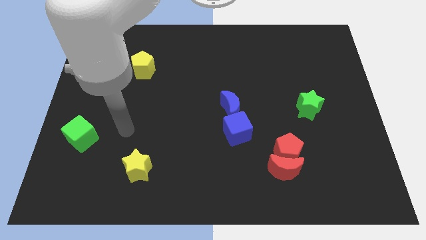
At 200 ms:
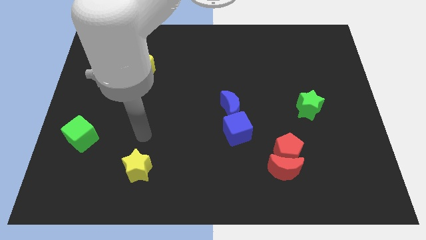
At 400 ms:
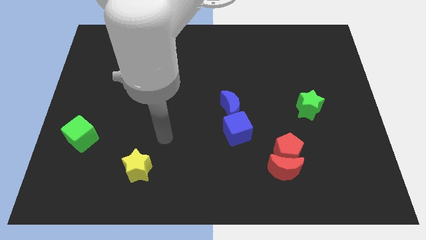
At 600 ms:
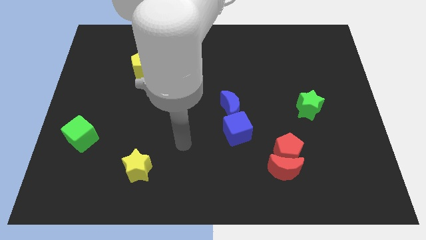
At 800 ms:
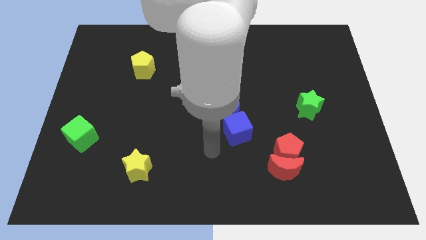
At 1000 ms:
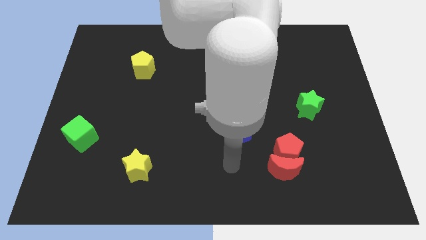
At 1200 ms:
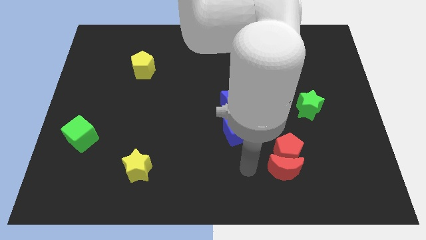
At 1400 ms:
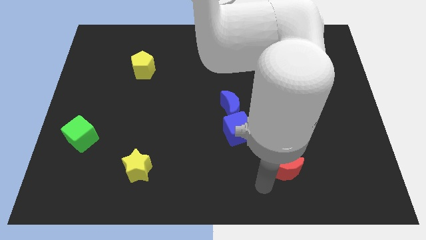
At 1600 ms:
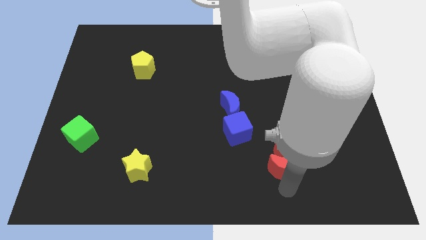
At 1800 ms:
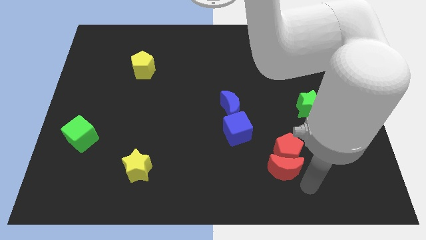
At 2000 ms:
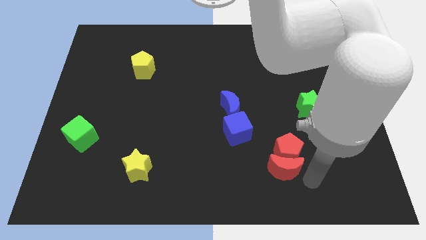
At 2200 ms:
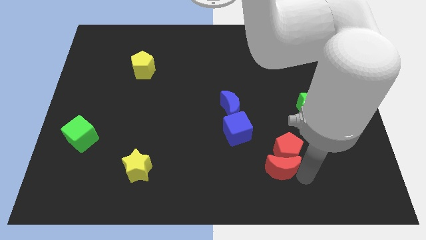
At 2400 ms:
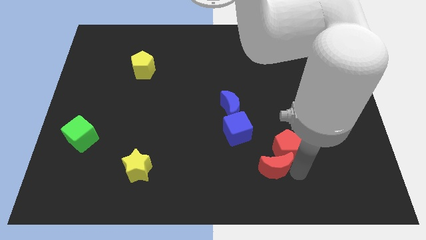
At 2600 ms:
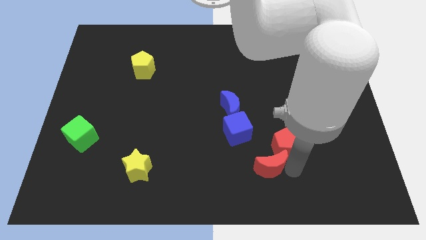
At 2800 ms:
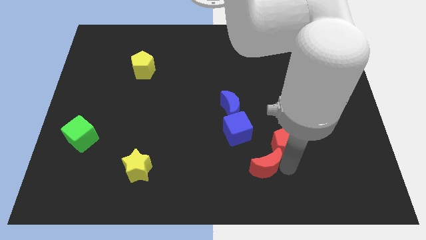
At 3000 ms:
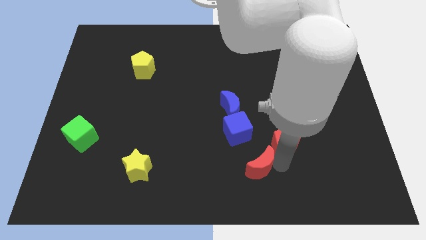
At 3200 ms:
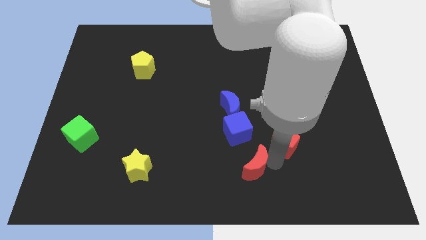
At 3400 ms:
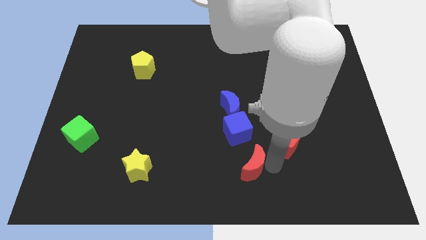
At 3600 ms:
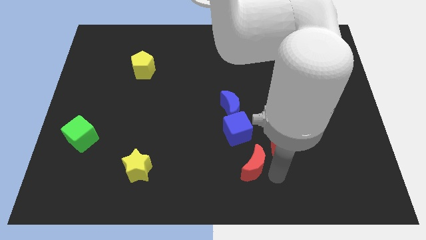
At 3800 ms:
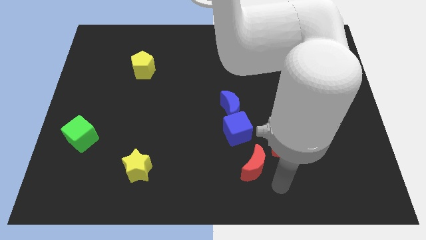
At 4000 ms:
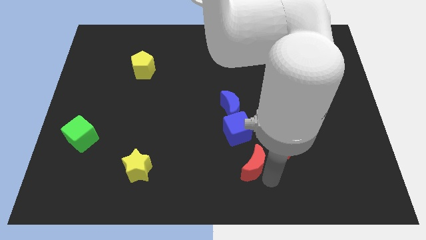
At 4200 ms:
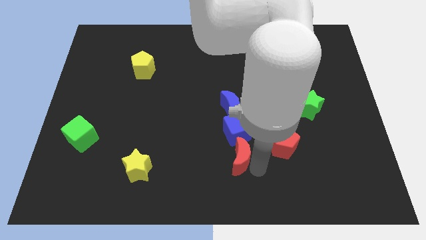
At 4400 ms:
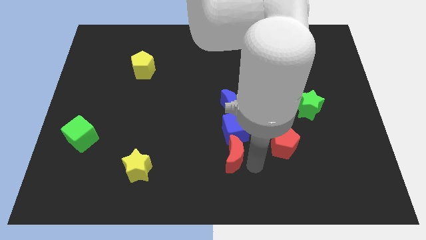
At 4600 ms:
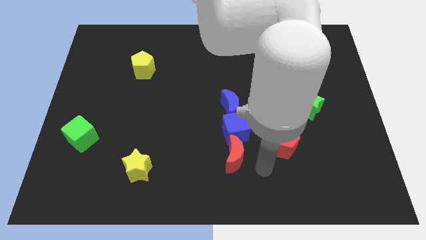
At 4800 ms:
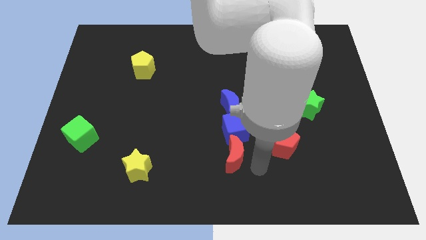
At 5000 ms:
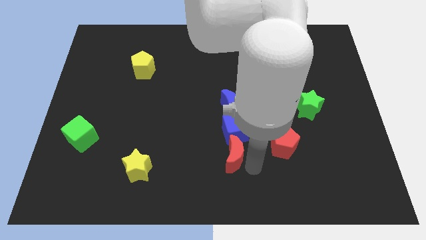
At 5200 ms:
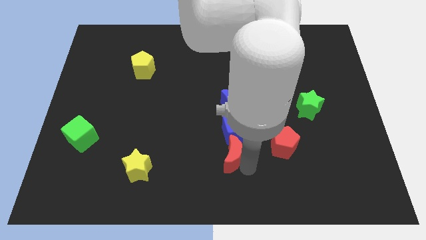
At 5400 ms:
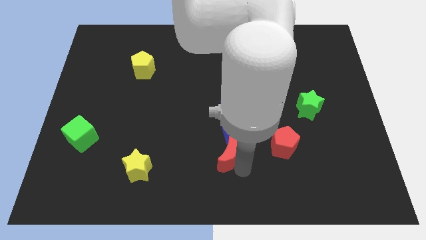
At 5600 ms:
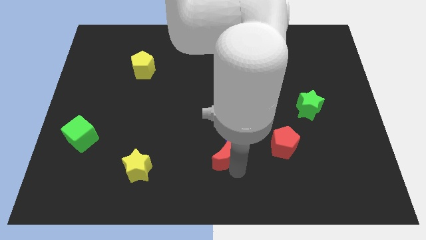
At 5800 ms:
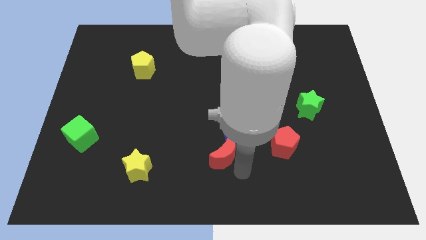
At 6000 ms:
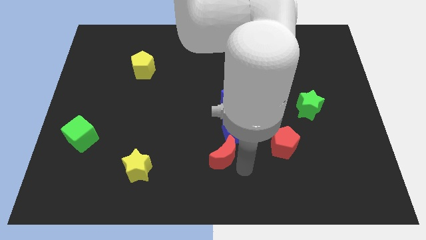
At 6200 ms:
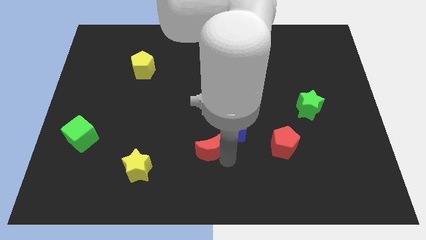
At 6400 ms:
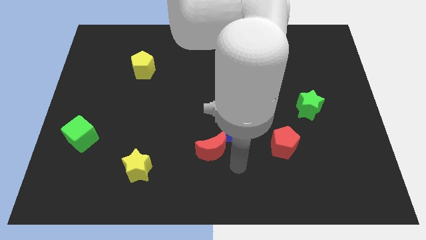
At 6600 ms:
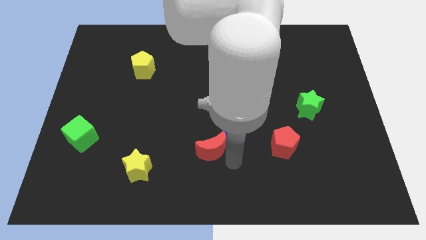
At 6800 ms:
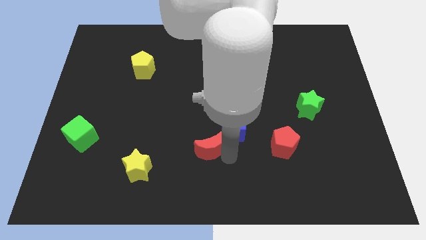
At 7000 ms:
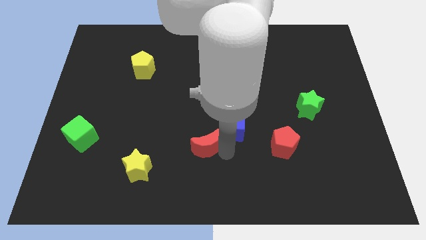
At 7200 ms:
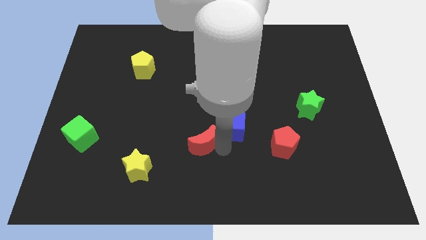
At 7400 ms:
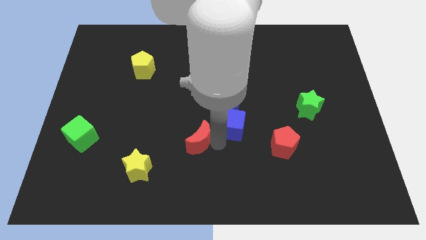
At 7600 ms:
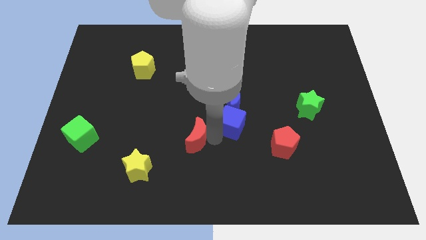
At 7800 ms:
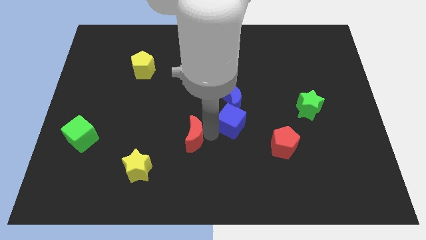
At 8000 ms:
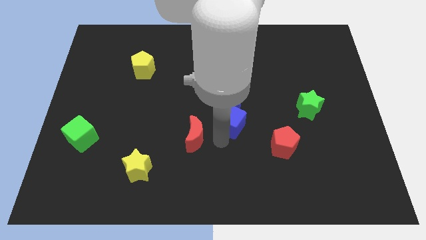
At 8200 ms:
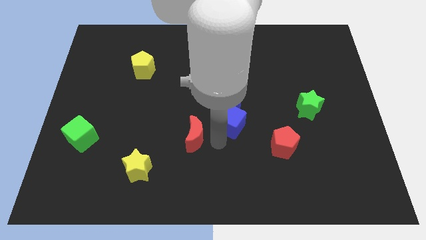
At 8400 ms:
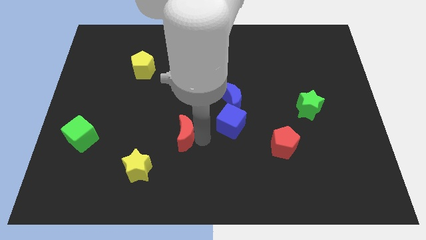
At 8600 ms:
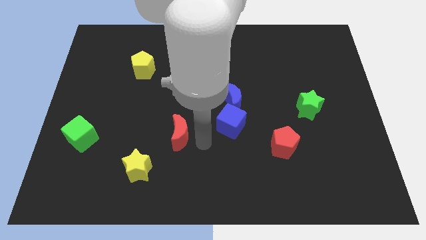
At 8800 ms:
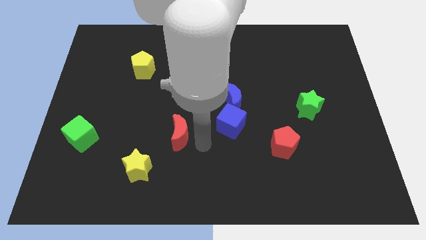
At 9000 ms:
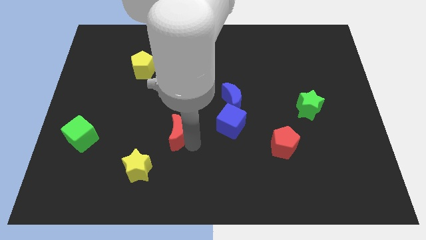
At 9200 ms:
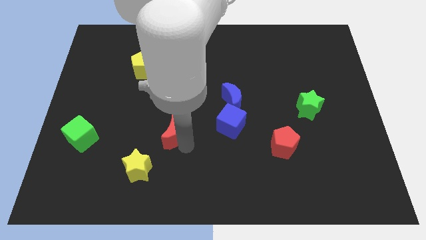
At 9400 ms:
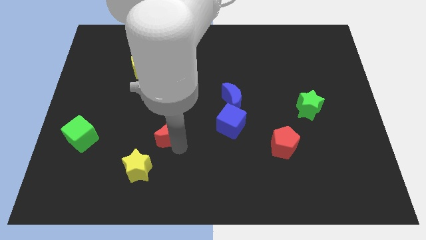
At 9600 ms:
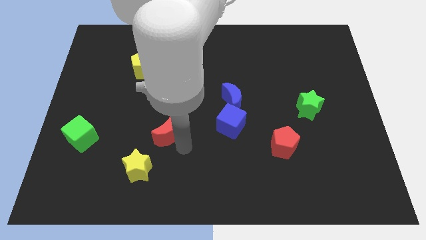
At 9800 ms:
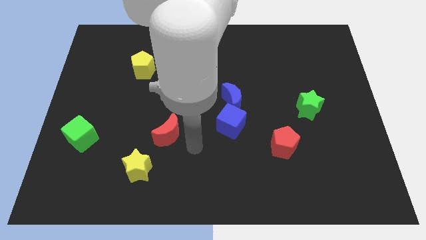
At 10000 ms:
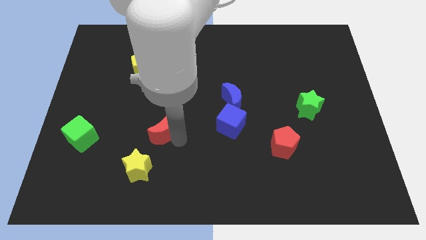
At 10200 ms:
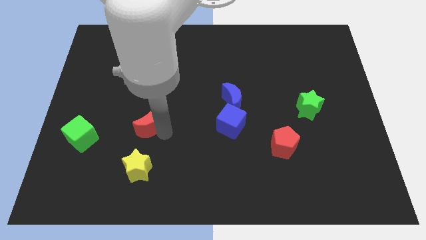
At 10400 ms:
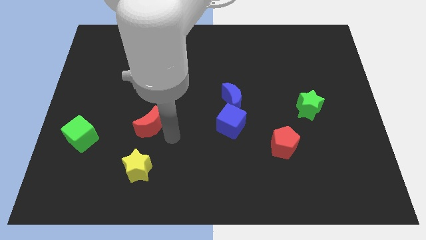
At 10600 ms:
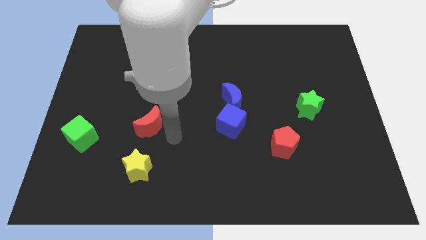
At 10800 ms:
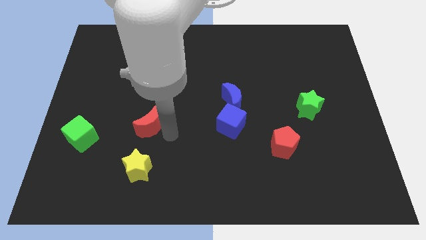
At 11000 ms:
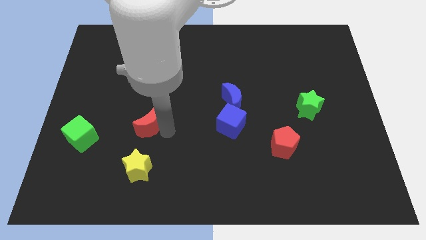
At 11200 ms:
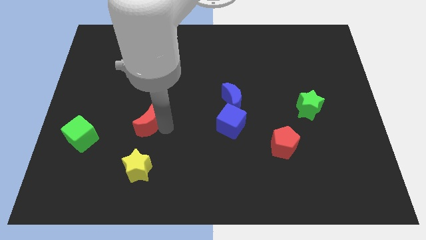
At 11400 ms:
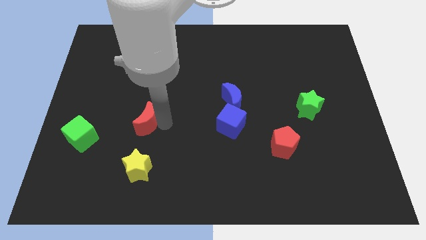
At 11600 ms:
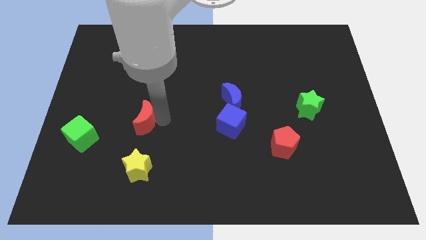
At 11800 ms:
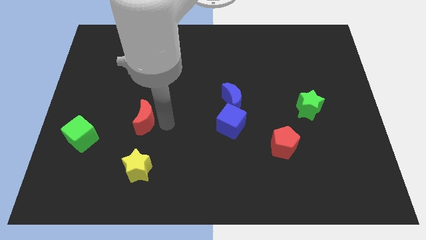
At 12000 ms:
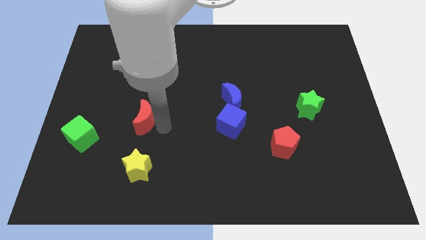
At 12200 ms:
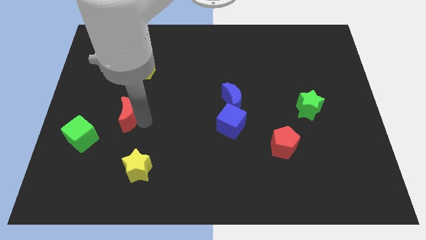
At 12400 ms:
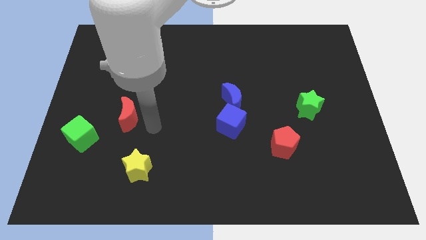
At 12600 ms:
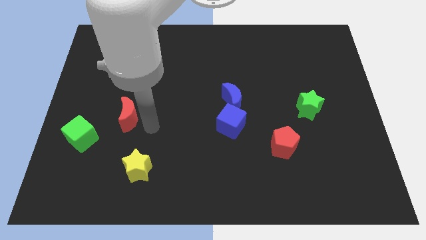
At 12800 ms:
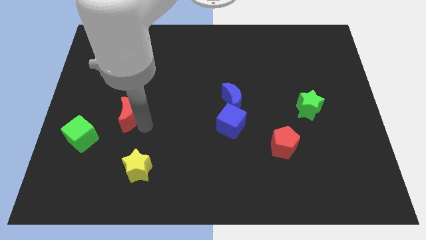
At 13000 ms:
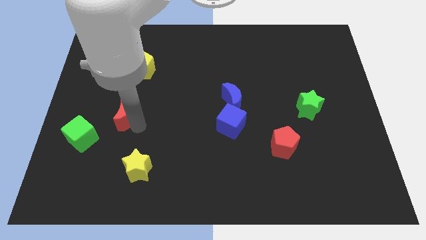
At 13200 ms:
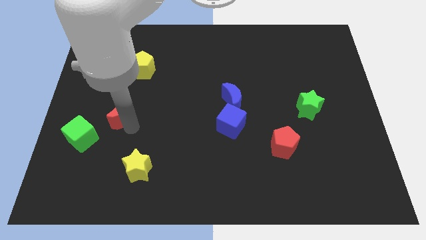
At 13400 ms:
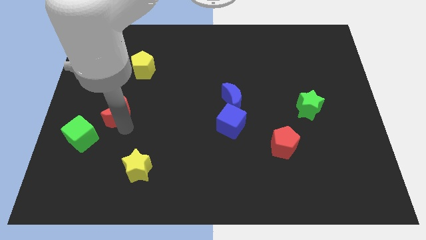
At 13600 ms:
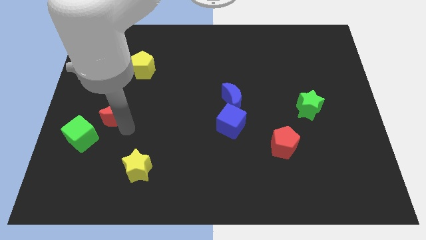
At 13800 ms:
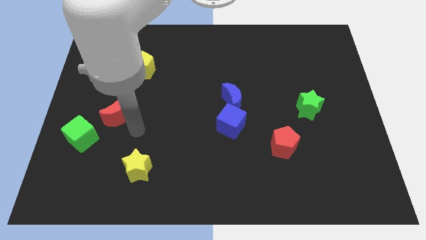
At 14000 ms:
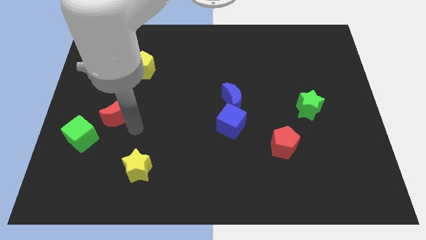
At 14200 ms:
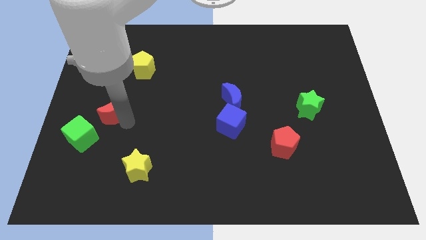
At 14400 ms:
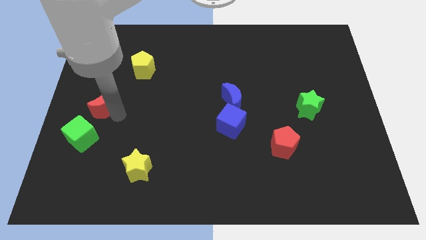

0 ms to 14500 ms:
put the red moon to the top side of the green cube

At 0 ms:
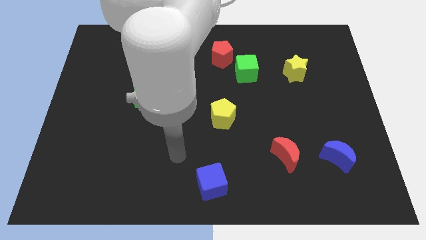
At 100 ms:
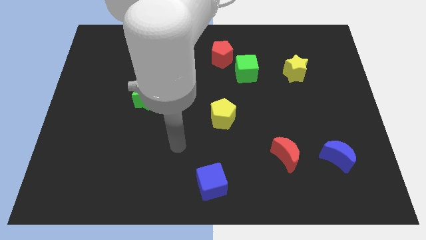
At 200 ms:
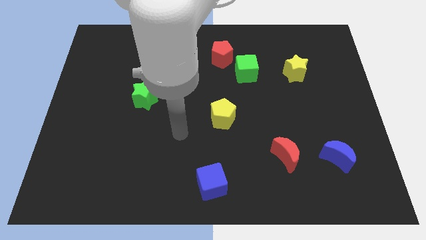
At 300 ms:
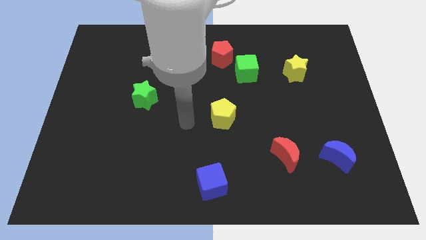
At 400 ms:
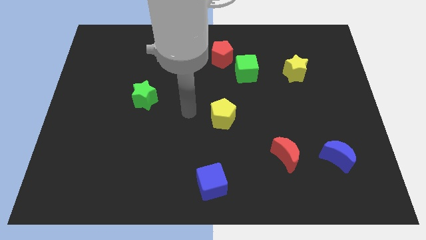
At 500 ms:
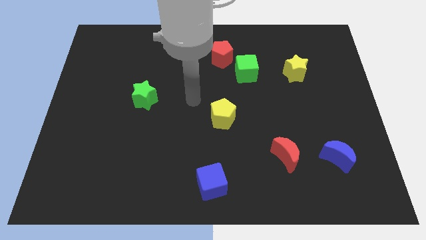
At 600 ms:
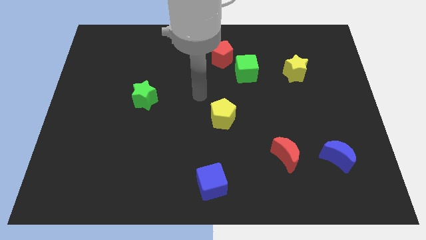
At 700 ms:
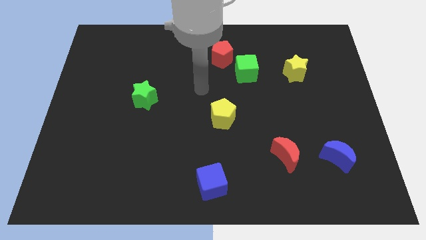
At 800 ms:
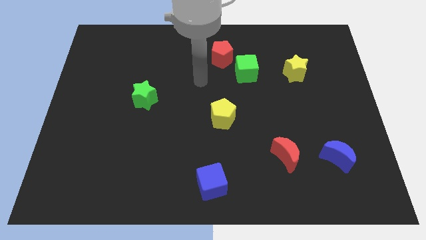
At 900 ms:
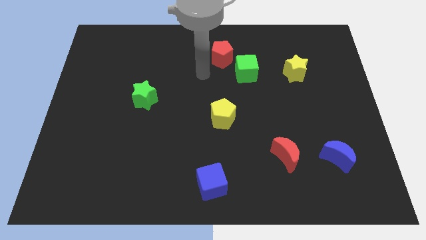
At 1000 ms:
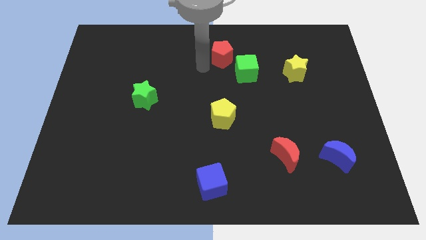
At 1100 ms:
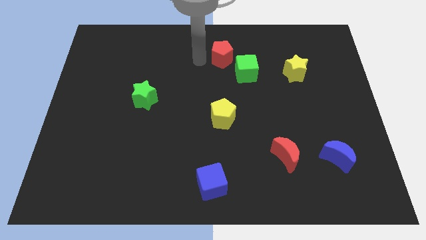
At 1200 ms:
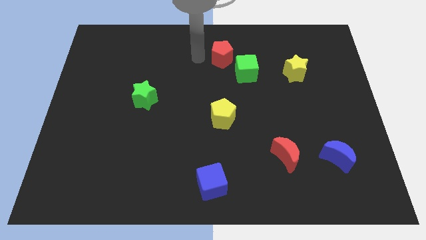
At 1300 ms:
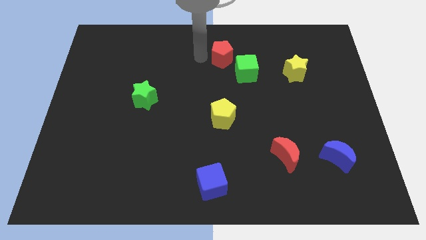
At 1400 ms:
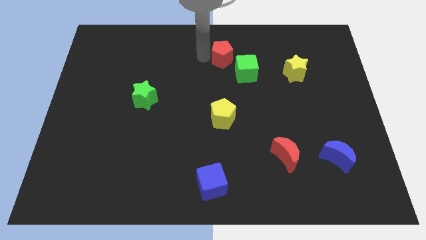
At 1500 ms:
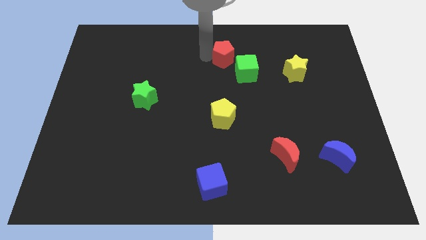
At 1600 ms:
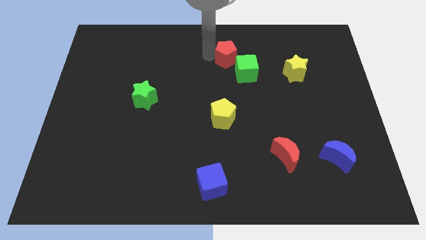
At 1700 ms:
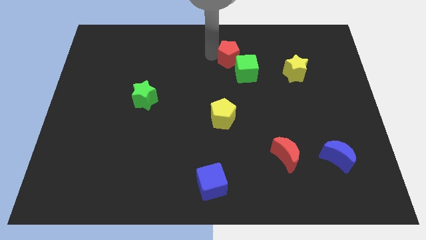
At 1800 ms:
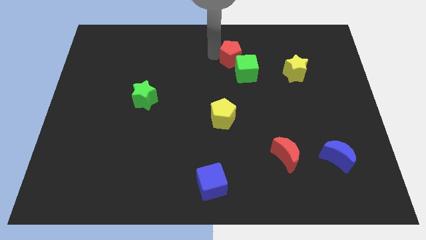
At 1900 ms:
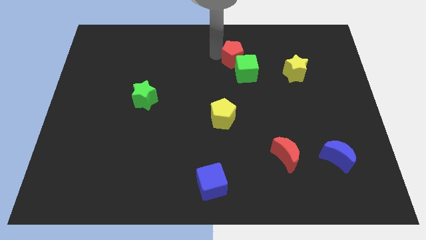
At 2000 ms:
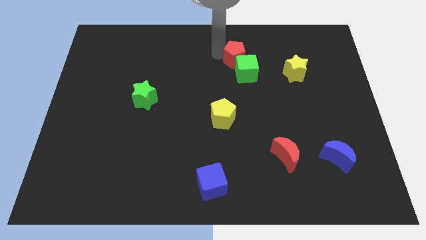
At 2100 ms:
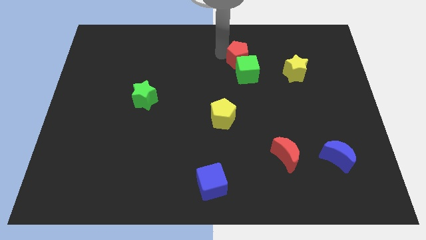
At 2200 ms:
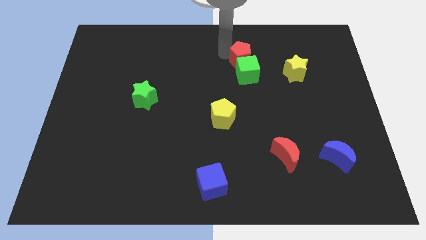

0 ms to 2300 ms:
put the red pentagon diagonally up and to the right of the green cube
